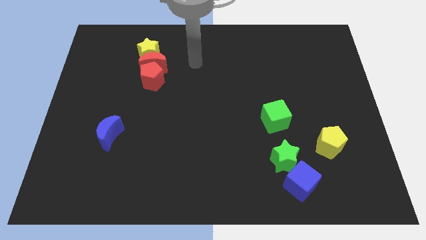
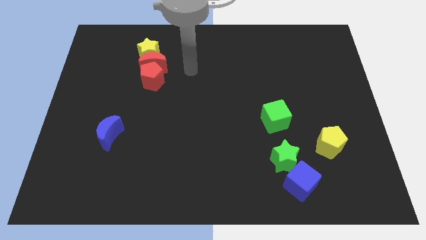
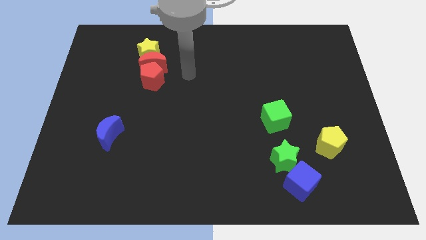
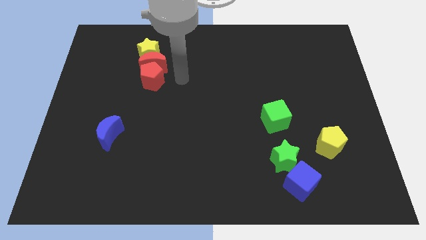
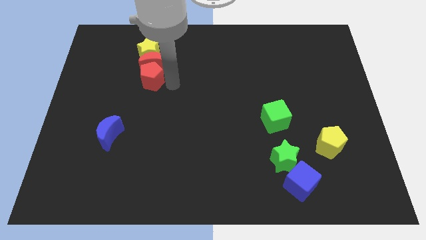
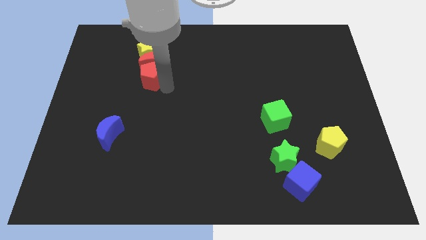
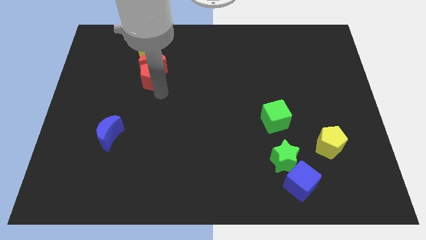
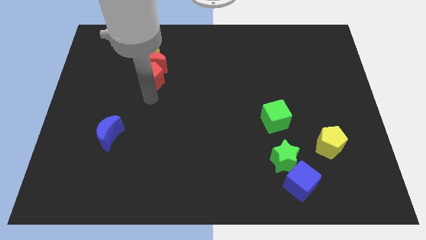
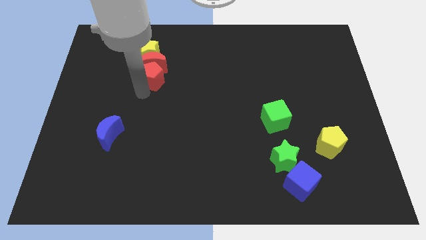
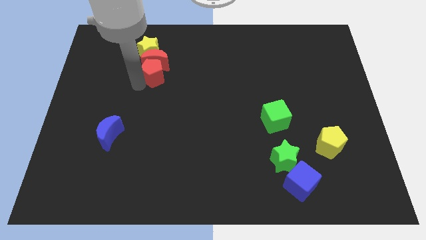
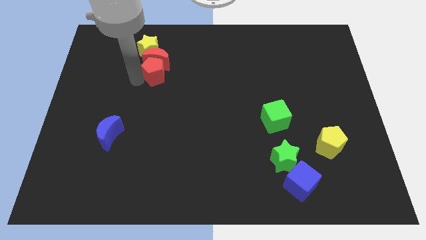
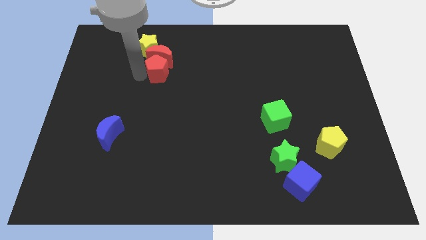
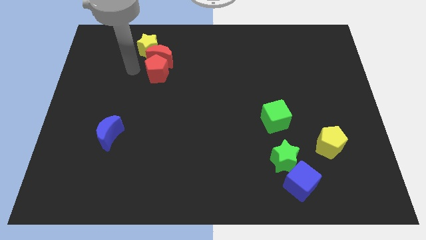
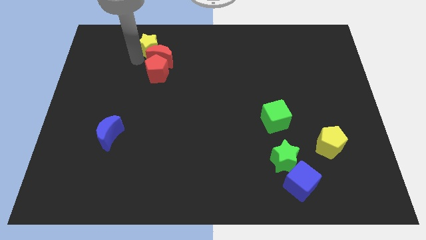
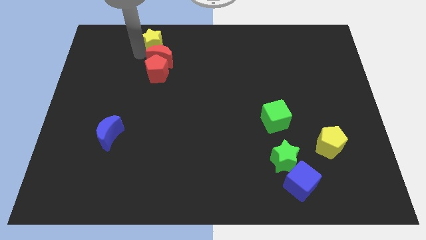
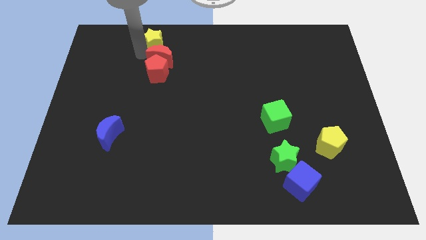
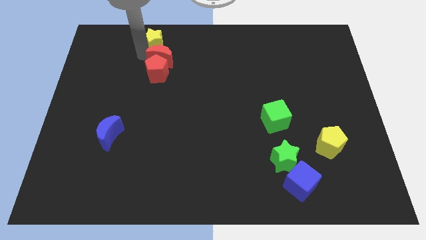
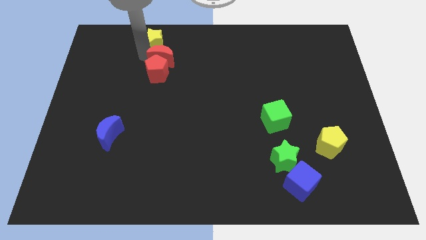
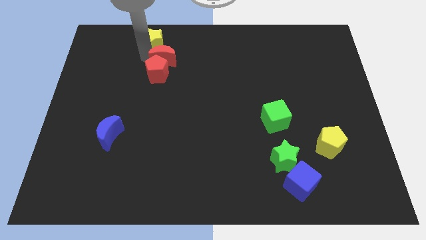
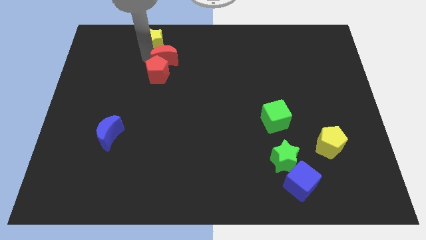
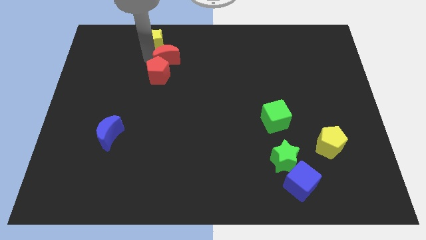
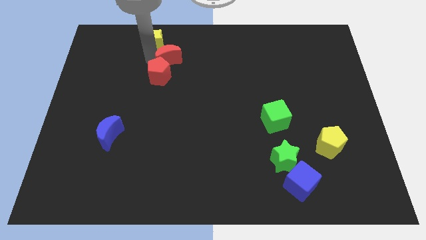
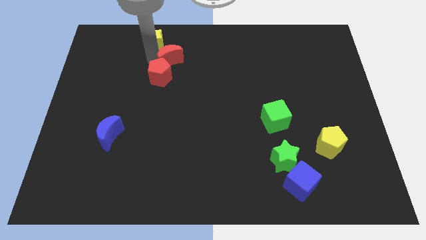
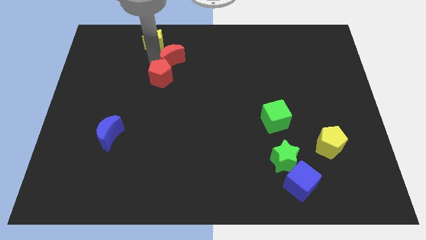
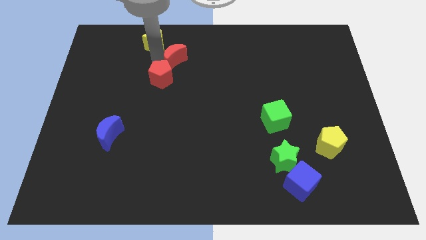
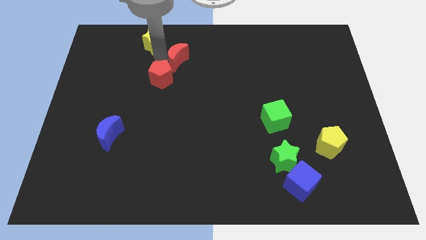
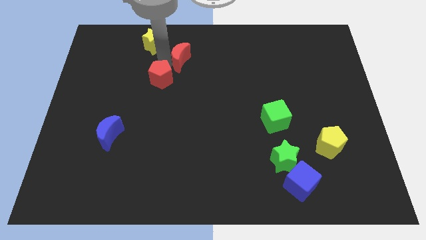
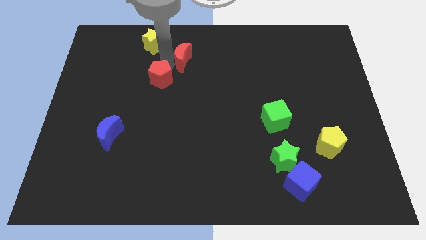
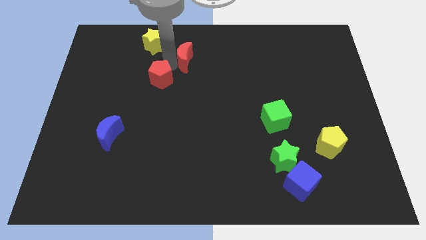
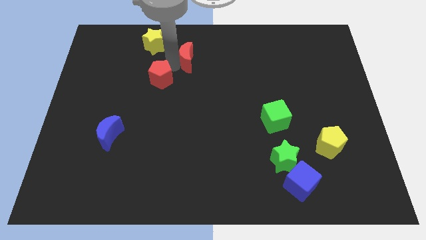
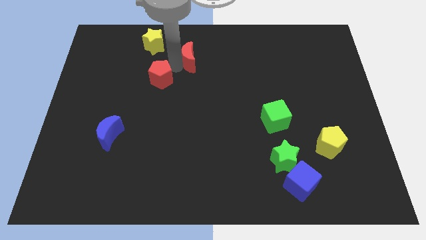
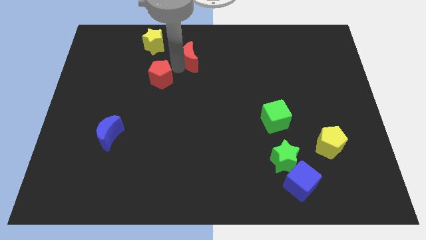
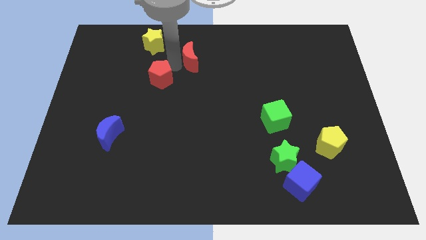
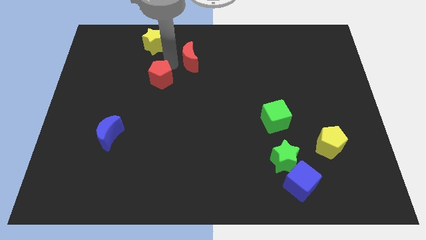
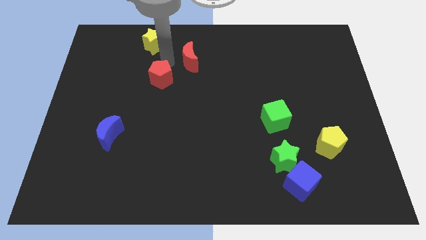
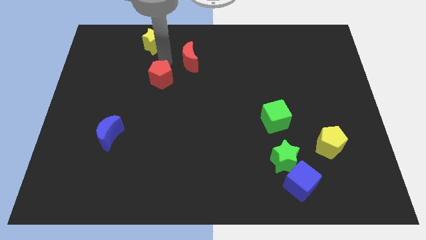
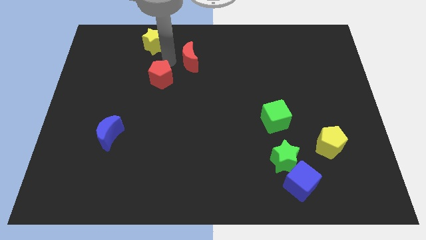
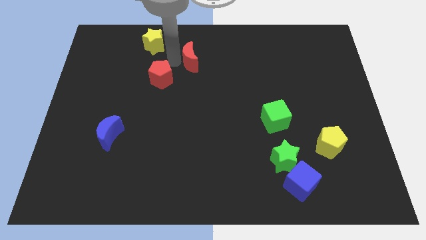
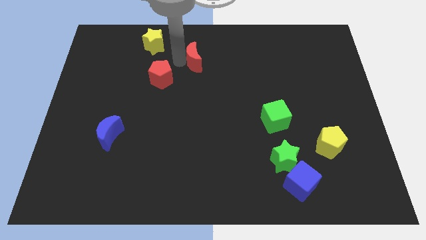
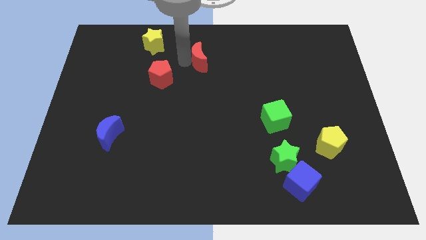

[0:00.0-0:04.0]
pull the red moon apart from the yellow star and red pentagon

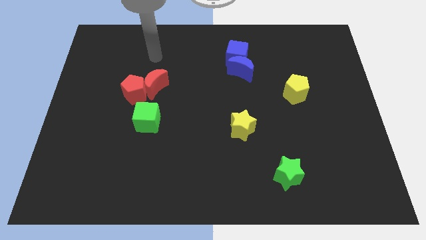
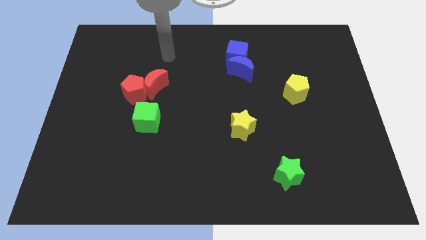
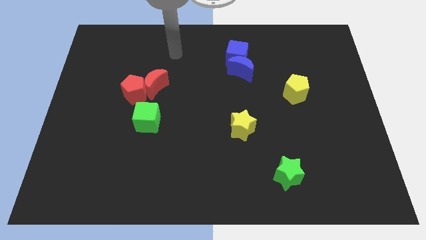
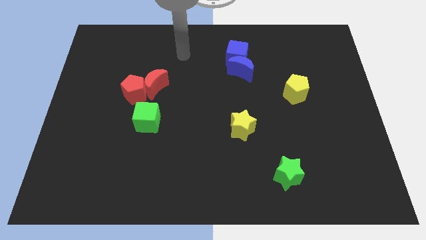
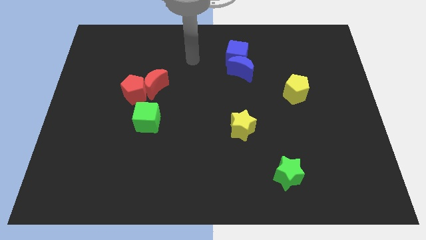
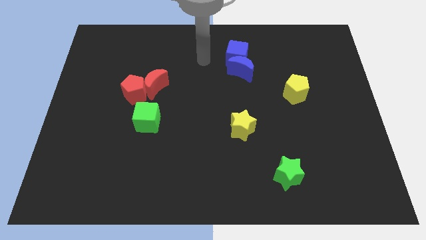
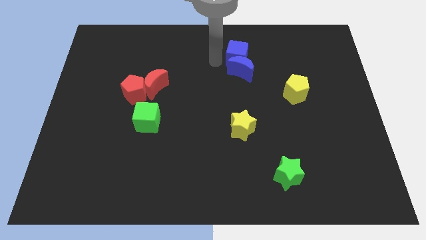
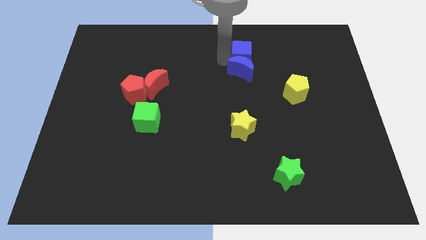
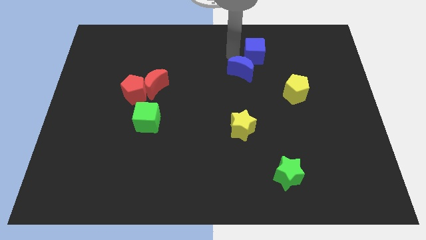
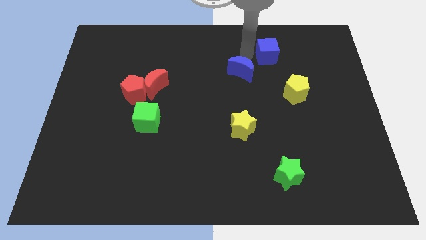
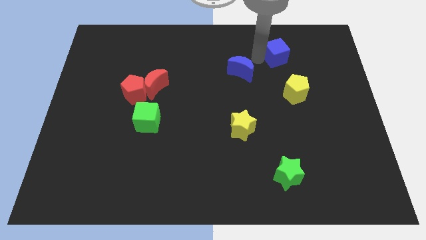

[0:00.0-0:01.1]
pull the blue moon apart from the blue cube

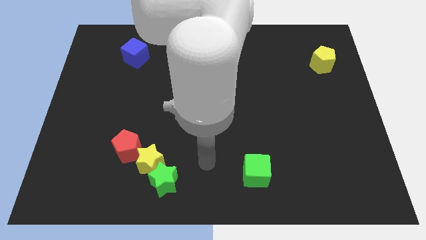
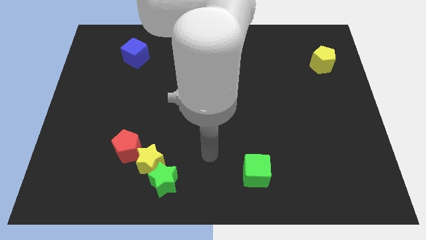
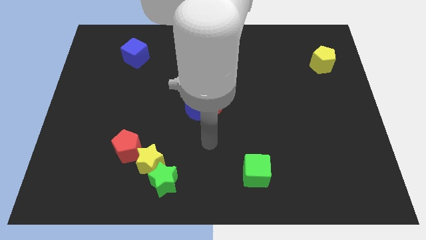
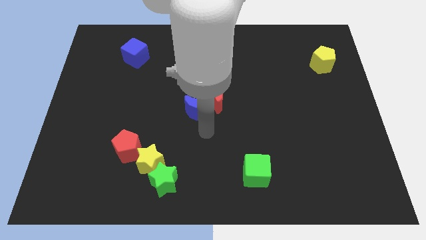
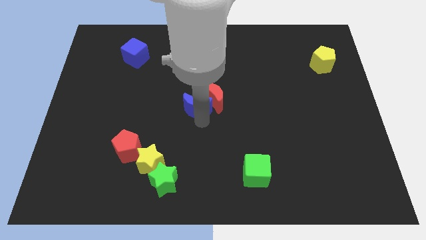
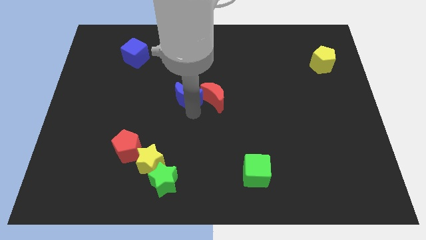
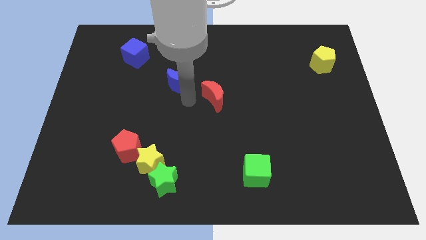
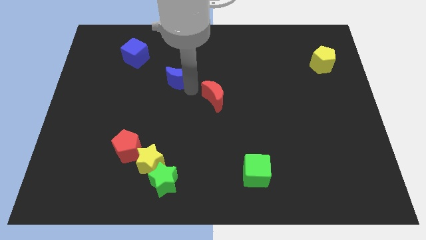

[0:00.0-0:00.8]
pull the red moon apart from the blue moon

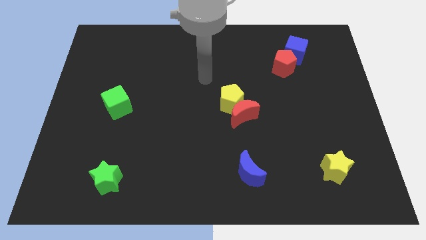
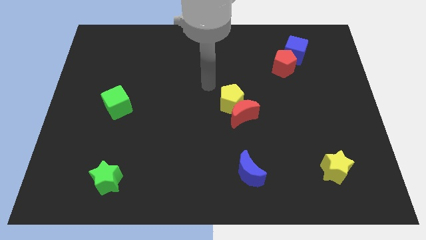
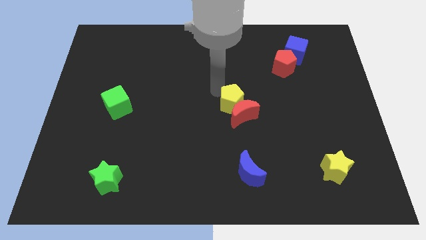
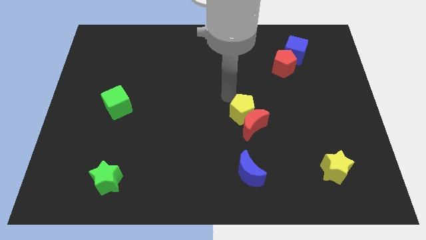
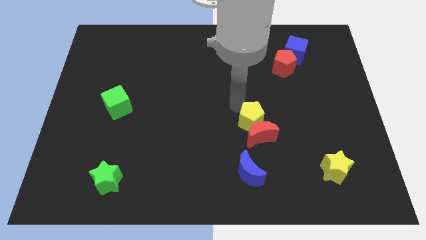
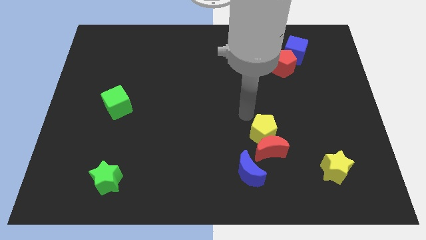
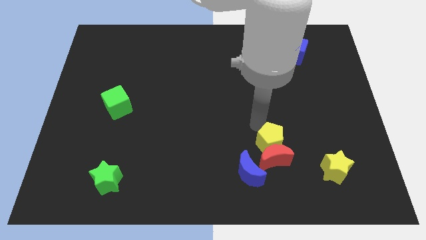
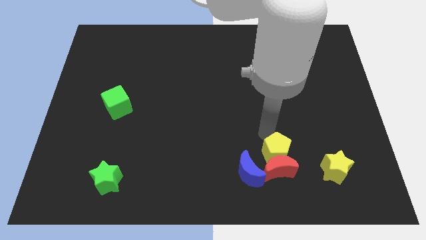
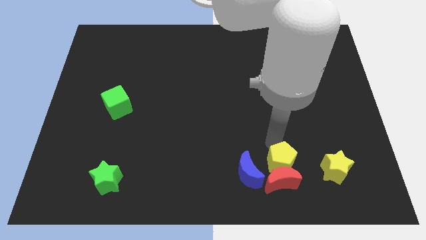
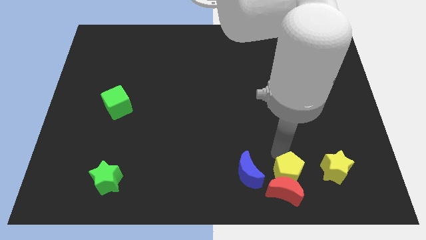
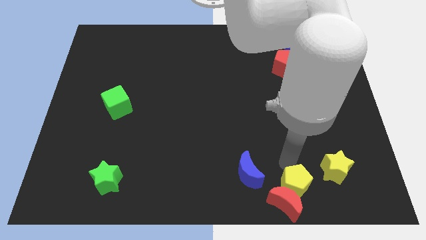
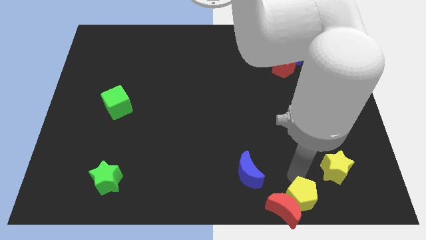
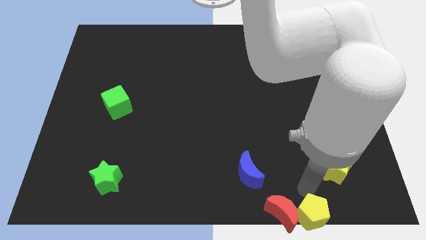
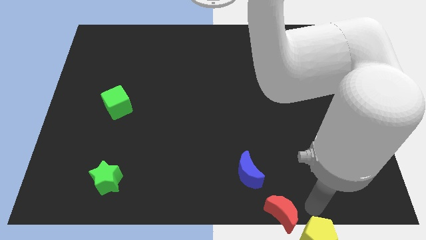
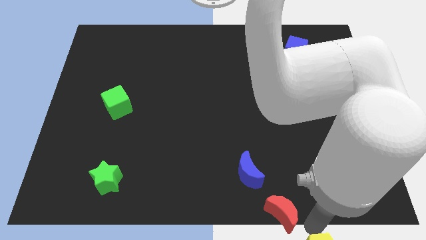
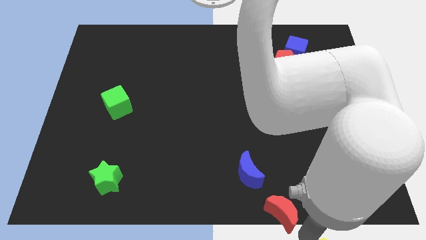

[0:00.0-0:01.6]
move the red moon away from the yellow pentagon

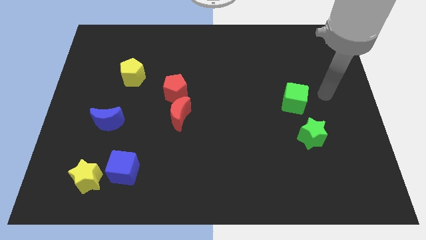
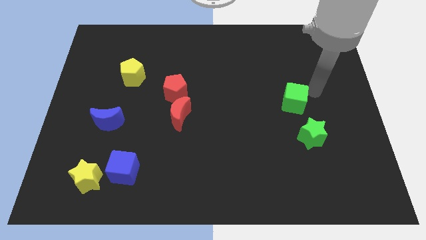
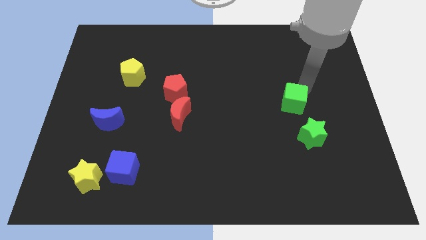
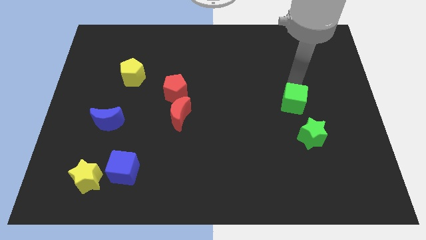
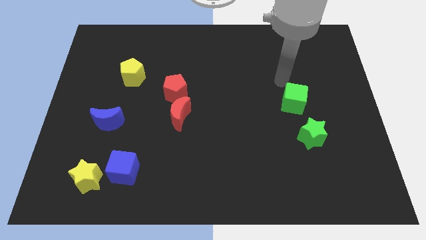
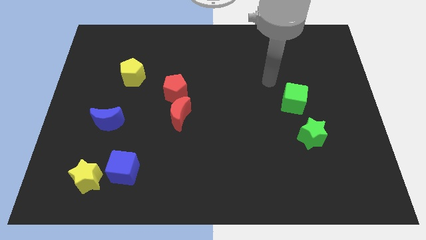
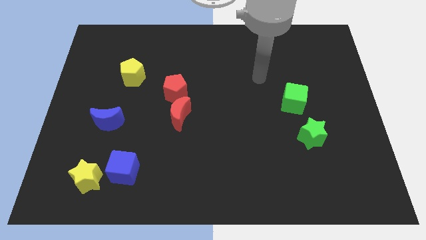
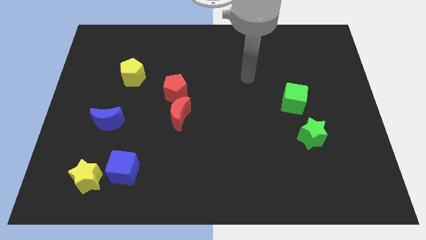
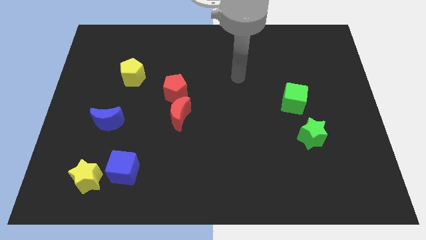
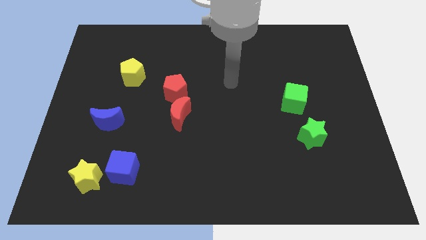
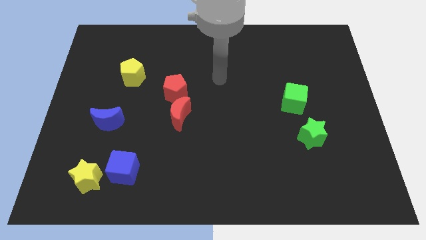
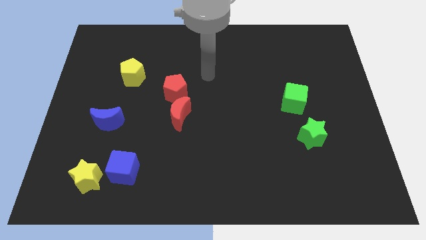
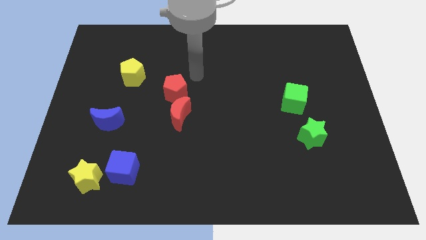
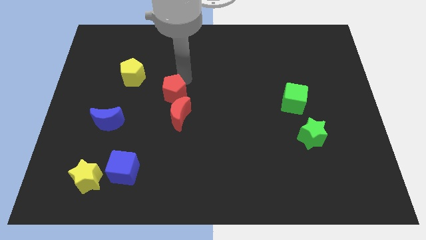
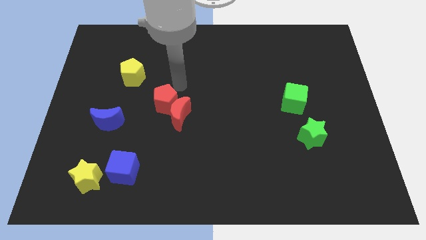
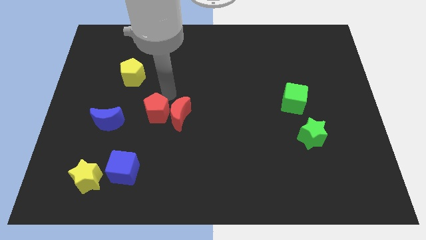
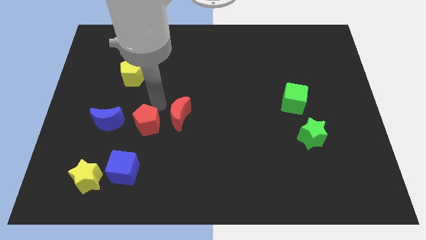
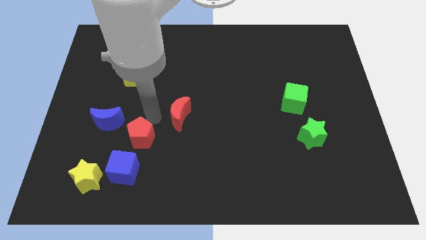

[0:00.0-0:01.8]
move the red moon away from the red pentagon

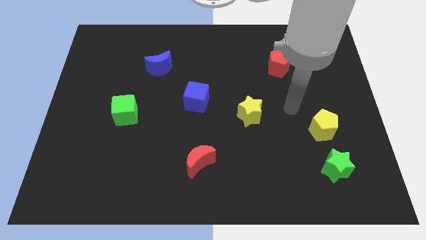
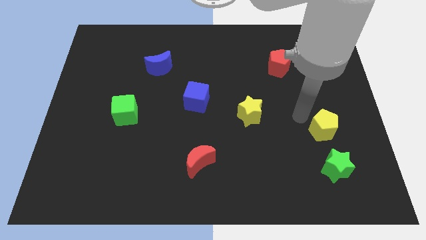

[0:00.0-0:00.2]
move the green star away from the yellow pentagon
